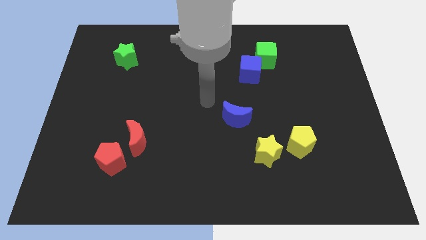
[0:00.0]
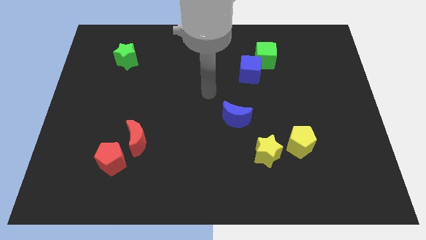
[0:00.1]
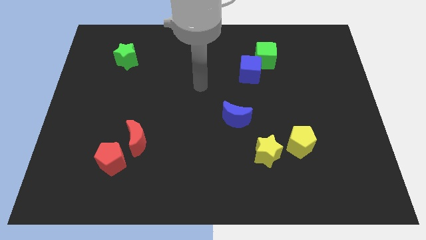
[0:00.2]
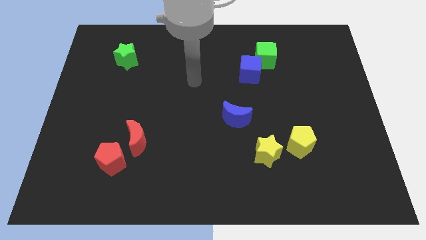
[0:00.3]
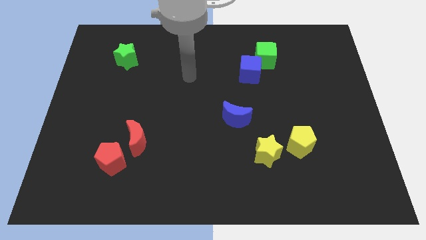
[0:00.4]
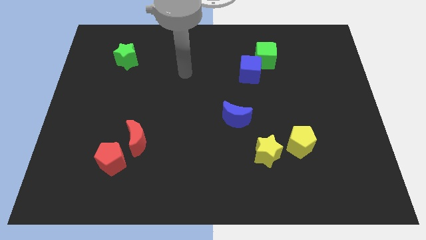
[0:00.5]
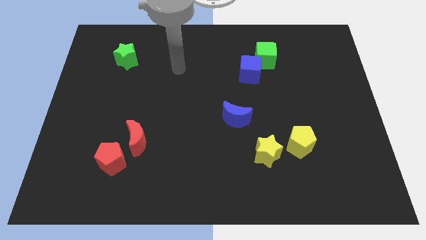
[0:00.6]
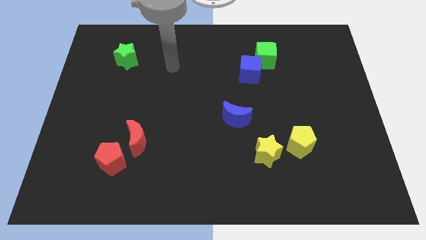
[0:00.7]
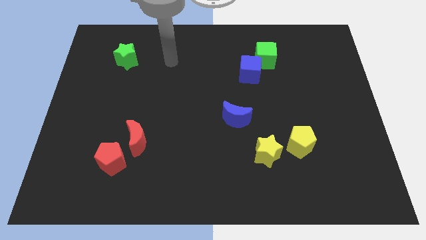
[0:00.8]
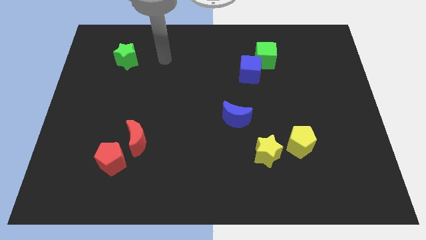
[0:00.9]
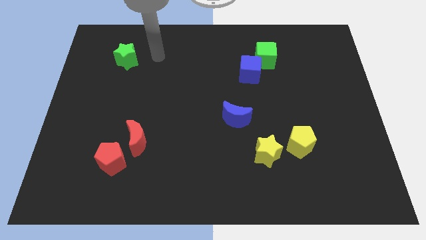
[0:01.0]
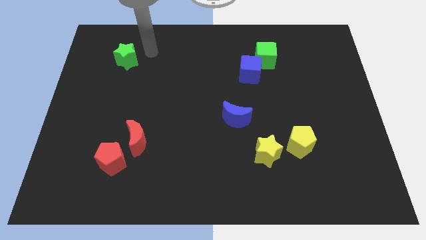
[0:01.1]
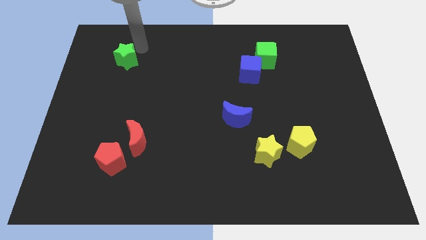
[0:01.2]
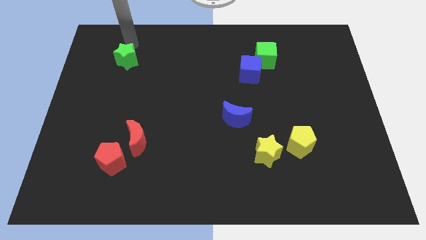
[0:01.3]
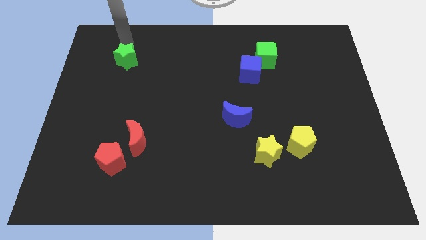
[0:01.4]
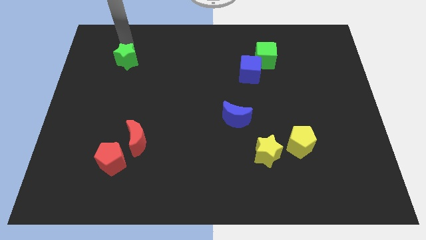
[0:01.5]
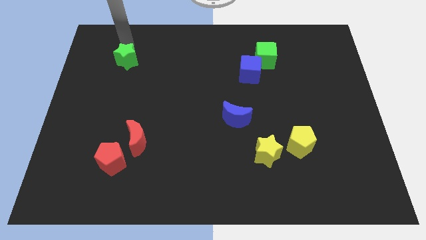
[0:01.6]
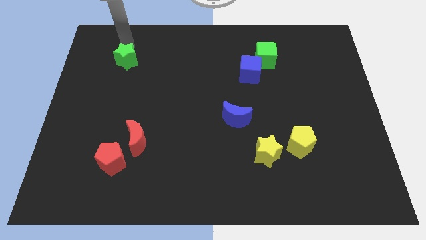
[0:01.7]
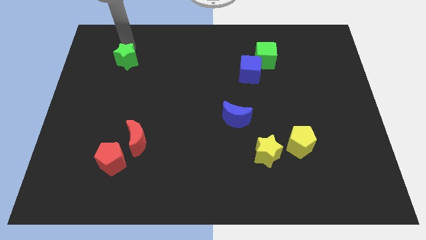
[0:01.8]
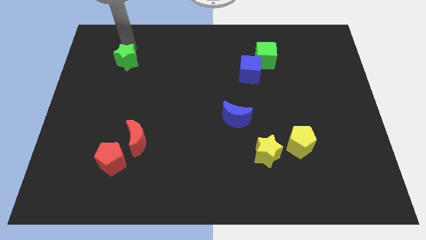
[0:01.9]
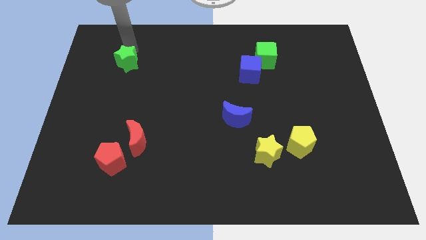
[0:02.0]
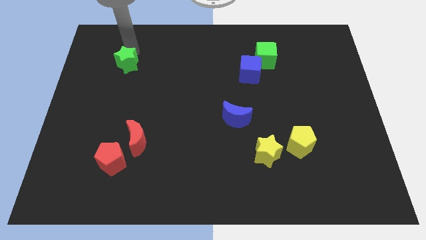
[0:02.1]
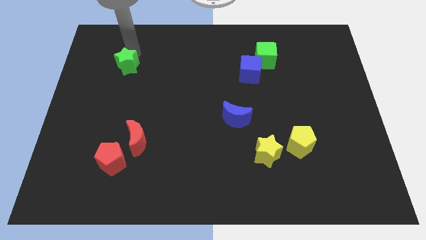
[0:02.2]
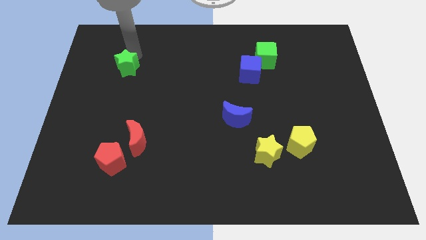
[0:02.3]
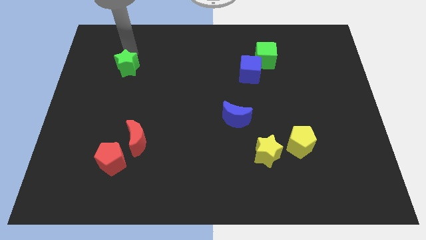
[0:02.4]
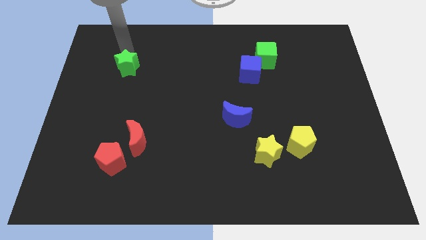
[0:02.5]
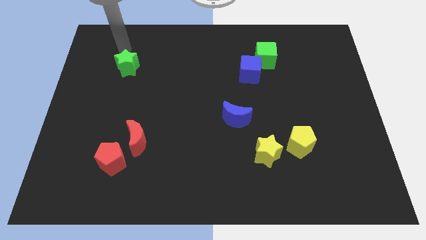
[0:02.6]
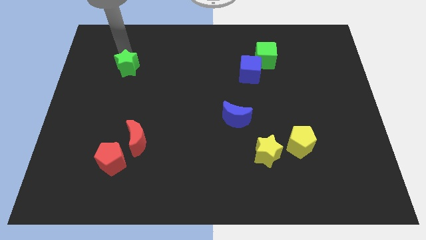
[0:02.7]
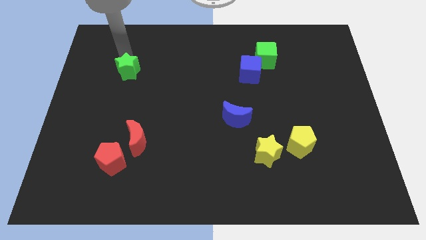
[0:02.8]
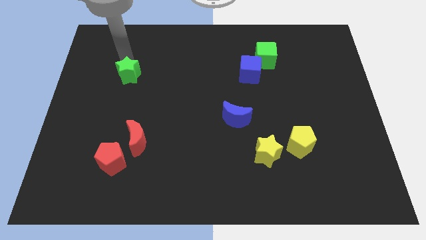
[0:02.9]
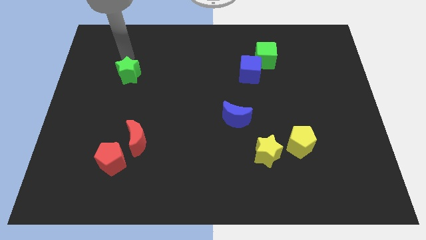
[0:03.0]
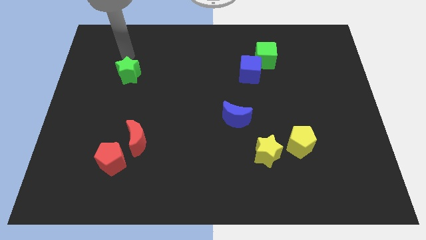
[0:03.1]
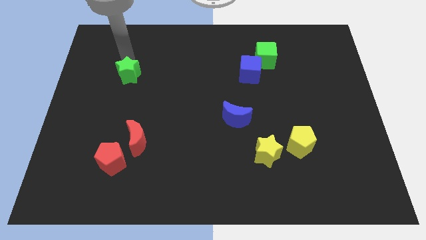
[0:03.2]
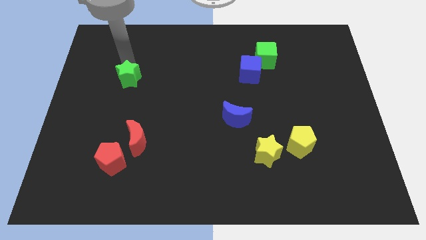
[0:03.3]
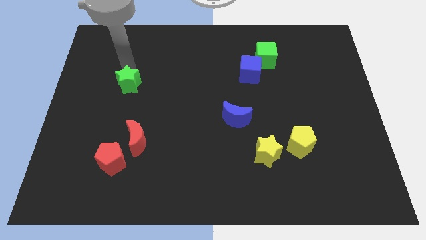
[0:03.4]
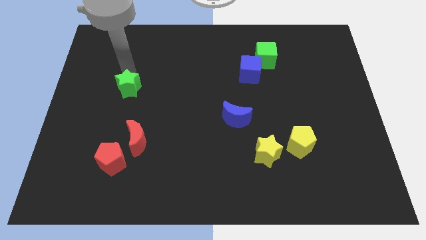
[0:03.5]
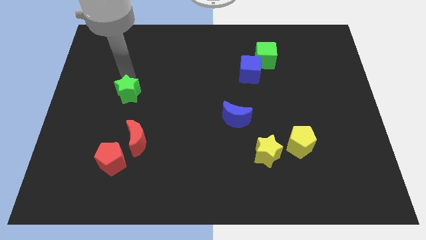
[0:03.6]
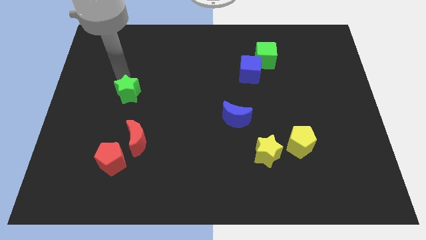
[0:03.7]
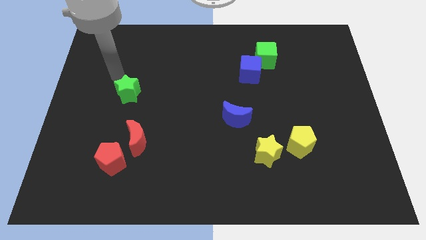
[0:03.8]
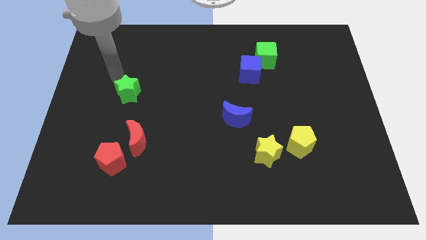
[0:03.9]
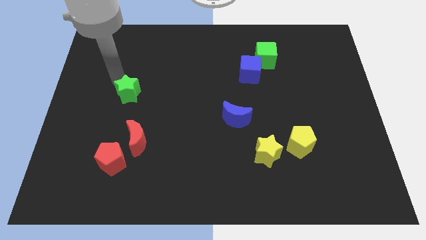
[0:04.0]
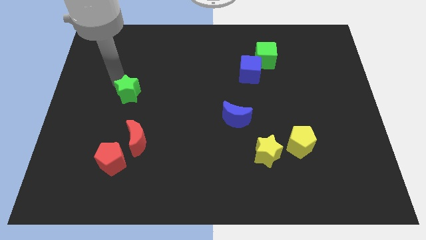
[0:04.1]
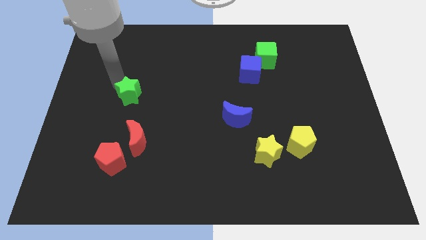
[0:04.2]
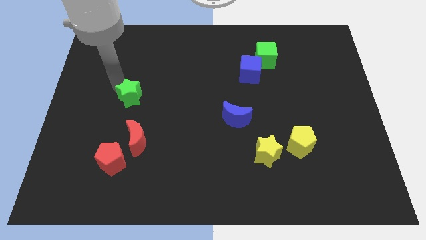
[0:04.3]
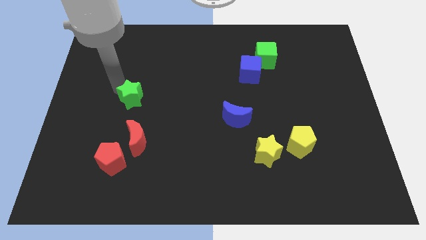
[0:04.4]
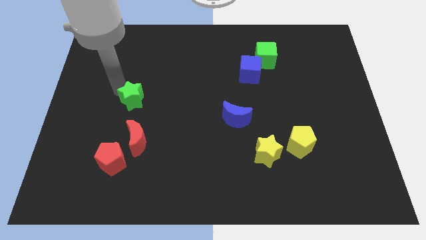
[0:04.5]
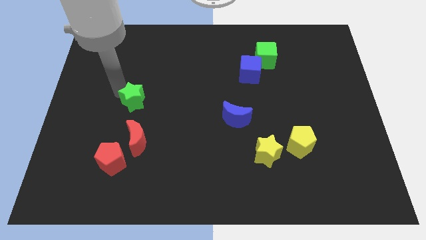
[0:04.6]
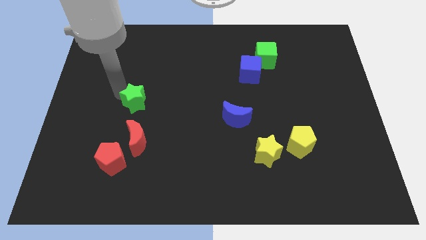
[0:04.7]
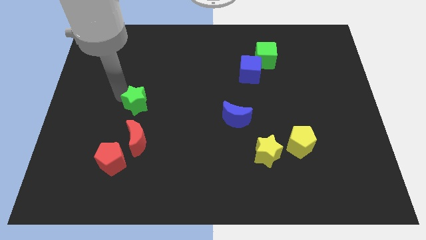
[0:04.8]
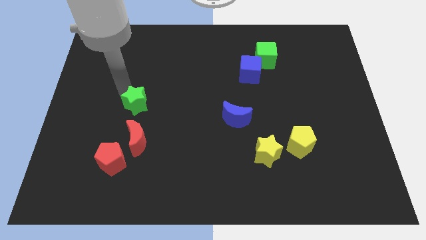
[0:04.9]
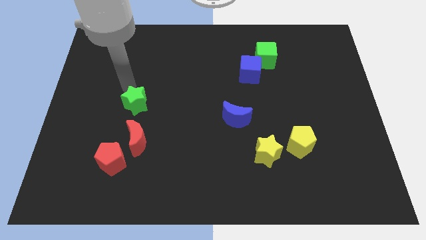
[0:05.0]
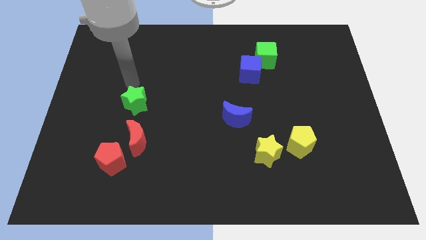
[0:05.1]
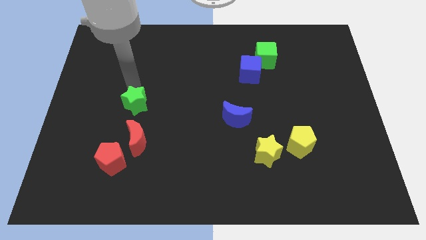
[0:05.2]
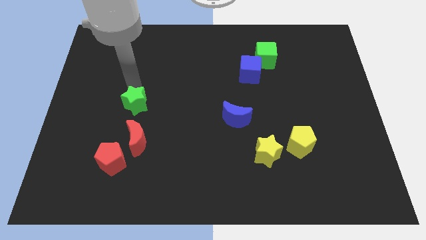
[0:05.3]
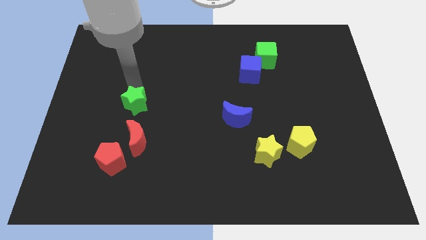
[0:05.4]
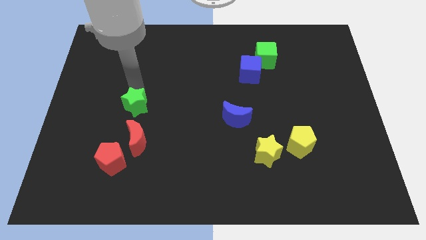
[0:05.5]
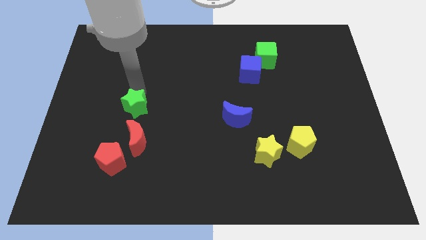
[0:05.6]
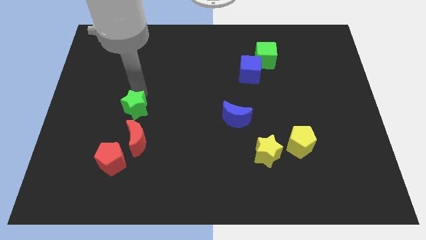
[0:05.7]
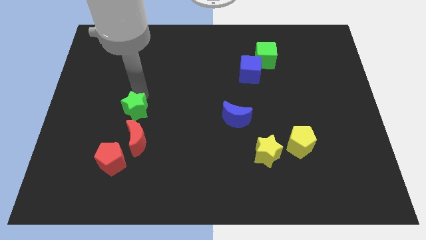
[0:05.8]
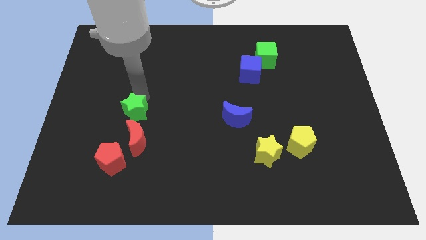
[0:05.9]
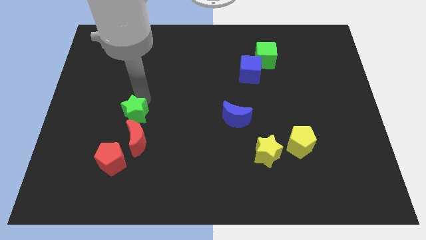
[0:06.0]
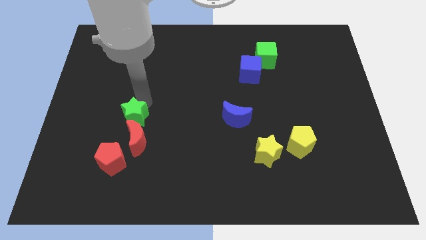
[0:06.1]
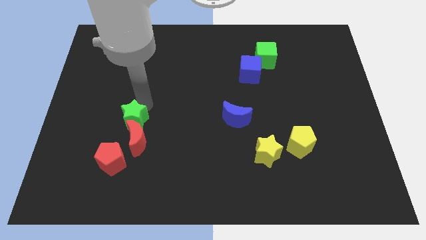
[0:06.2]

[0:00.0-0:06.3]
put the green star next to the red moon

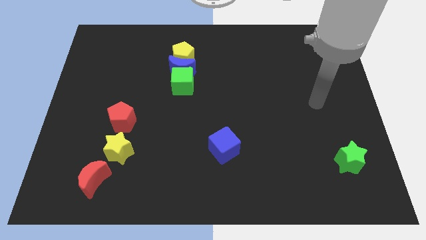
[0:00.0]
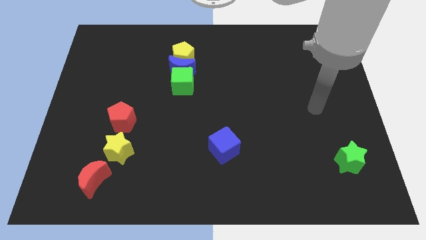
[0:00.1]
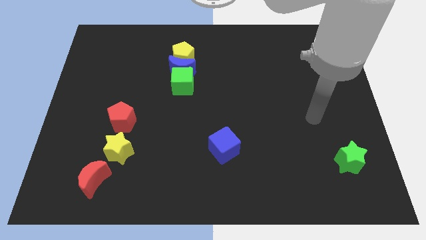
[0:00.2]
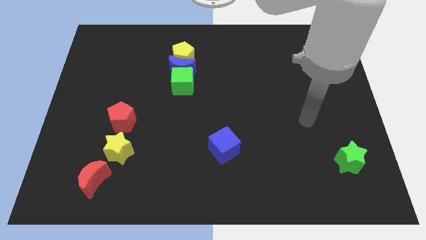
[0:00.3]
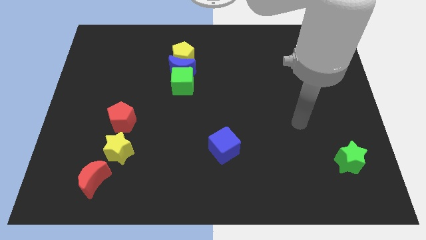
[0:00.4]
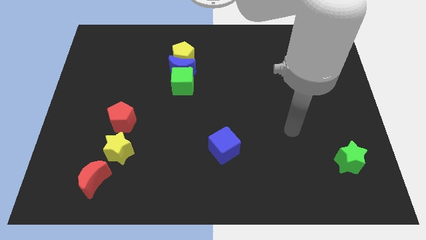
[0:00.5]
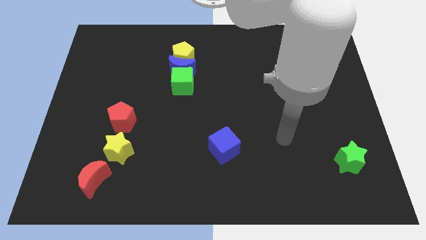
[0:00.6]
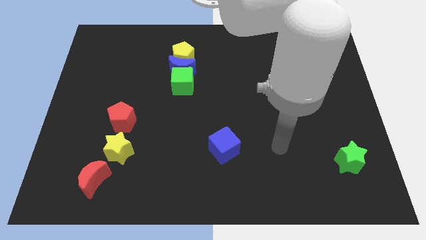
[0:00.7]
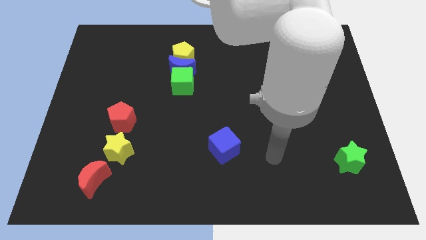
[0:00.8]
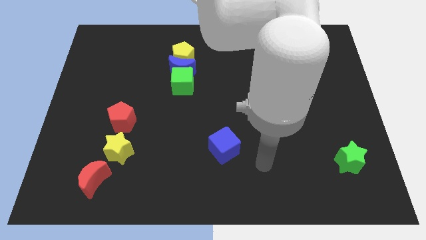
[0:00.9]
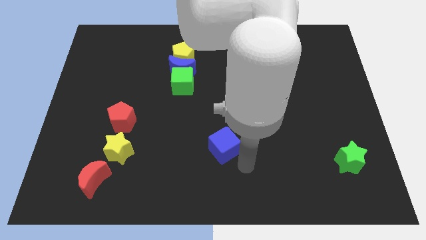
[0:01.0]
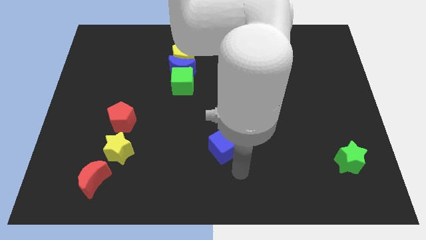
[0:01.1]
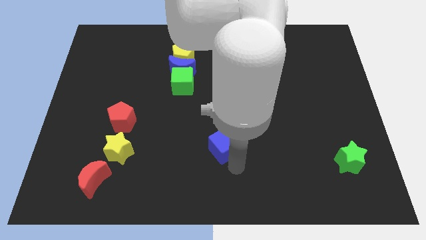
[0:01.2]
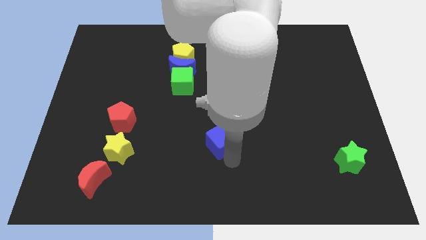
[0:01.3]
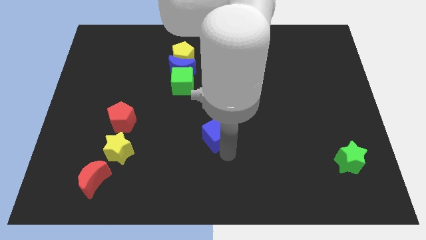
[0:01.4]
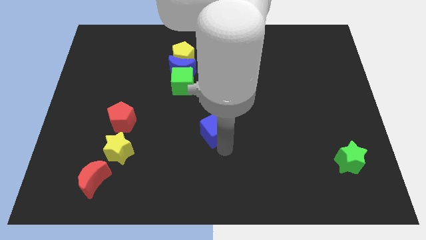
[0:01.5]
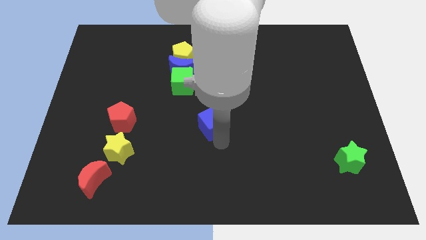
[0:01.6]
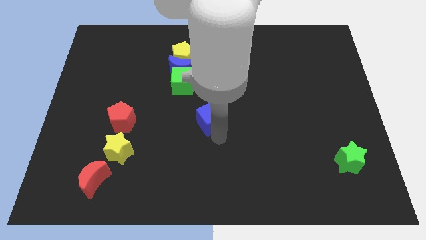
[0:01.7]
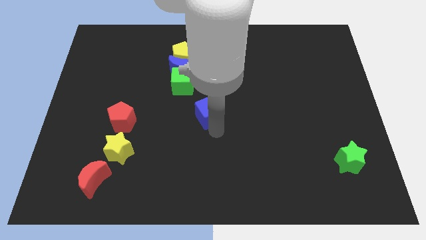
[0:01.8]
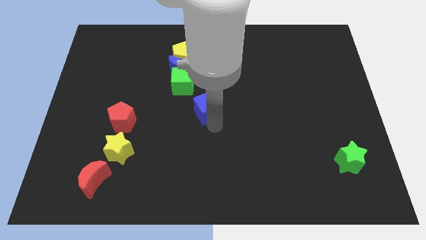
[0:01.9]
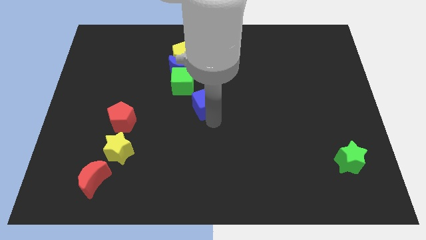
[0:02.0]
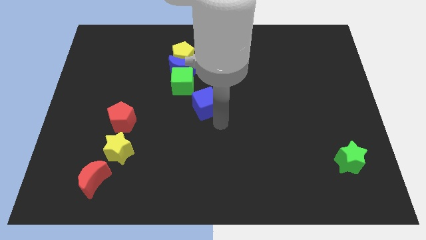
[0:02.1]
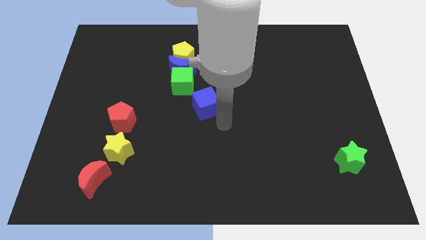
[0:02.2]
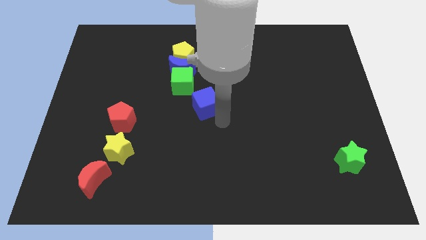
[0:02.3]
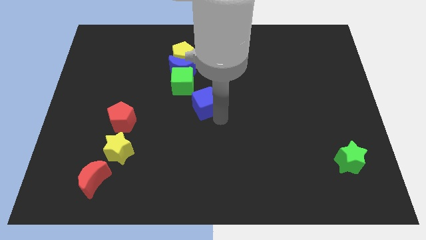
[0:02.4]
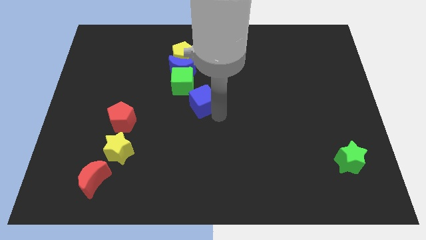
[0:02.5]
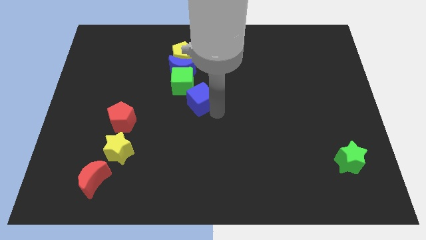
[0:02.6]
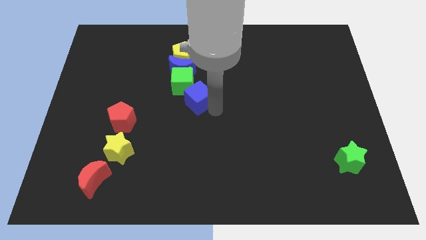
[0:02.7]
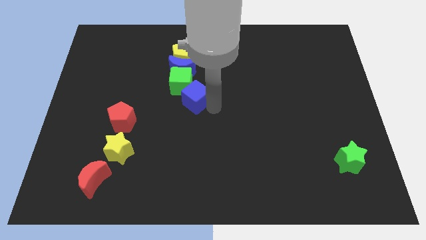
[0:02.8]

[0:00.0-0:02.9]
put the blue cube next to the green cube
